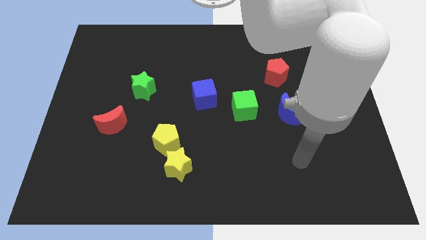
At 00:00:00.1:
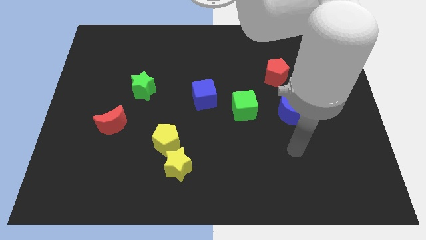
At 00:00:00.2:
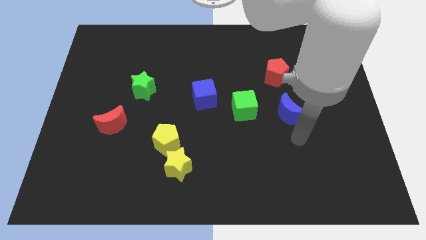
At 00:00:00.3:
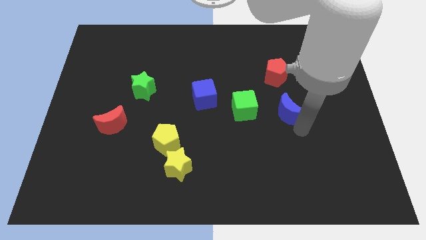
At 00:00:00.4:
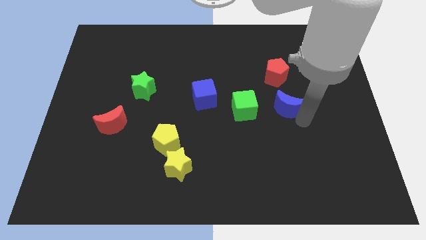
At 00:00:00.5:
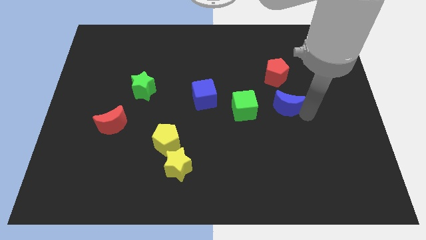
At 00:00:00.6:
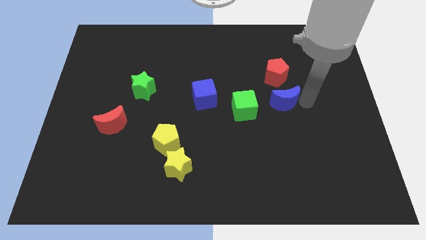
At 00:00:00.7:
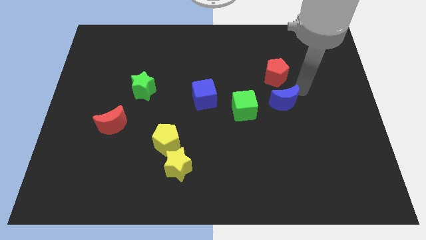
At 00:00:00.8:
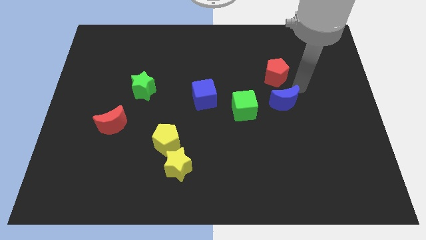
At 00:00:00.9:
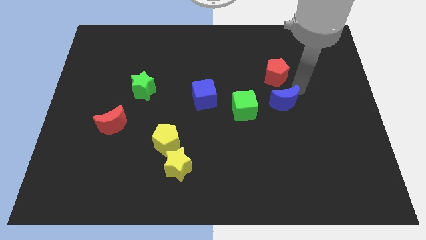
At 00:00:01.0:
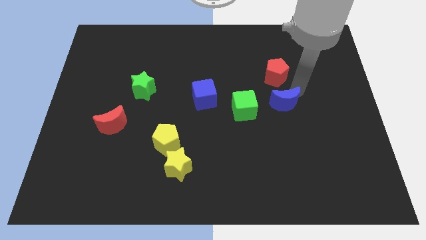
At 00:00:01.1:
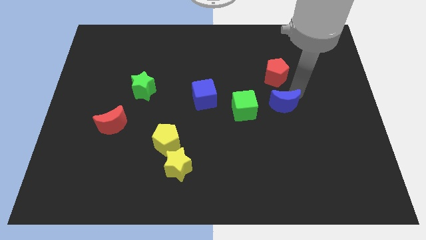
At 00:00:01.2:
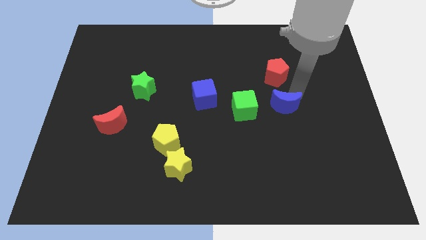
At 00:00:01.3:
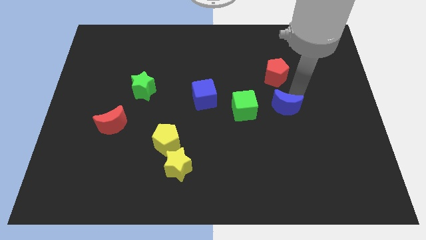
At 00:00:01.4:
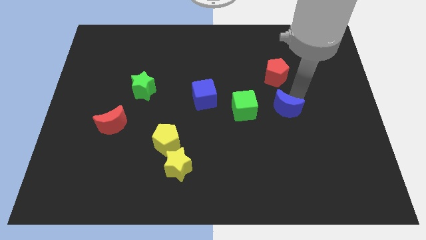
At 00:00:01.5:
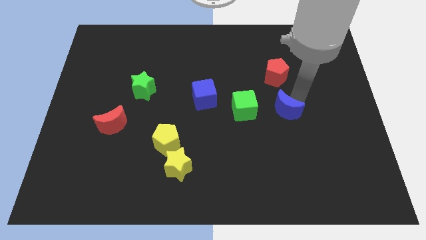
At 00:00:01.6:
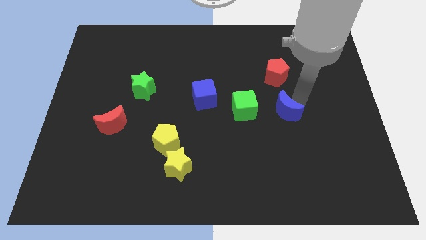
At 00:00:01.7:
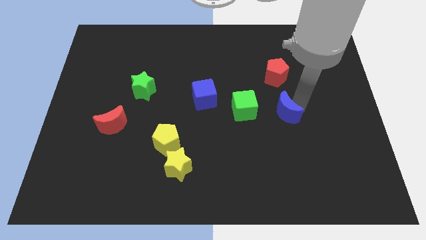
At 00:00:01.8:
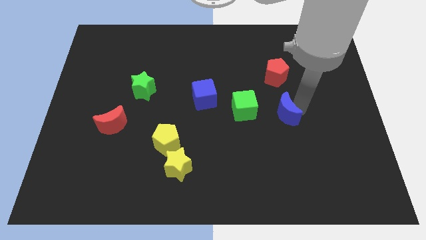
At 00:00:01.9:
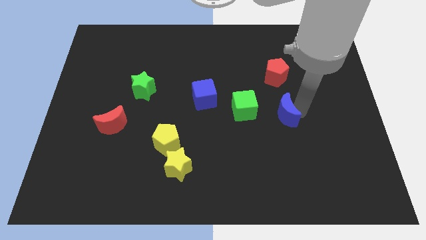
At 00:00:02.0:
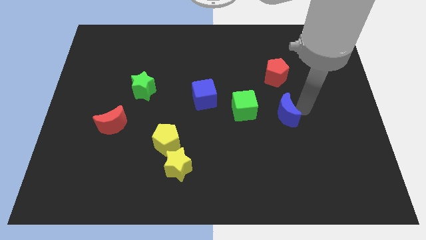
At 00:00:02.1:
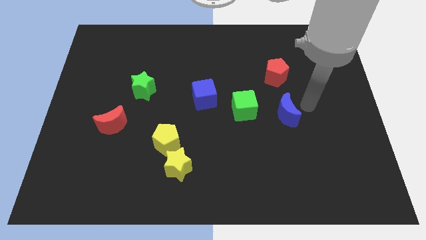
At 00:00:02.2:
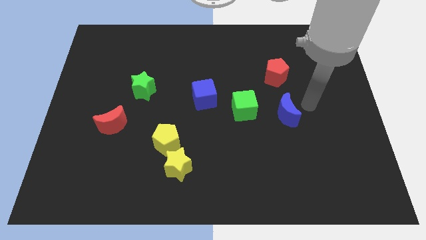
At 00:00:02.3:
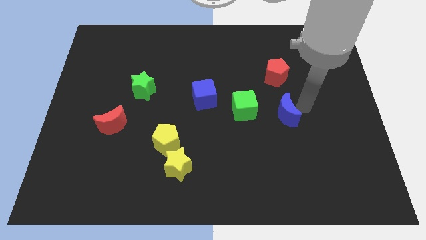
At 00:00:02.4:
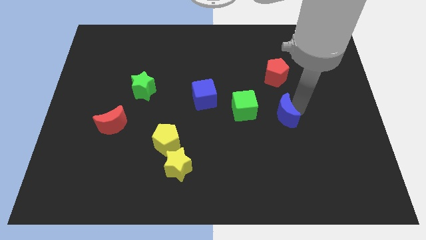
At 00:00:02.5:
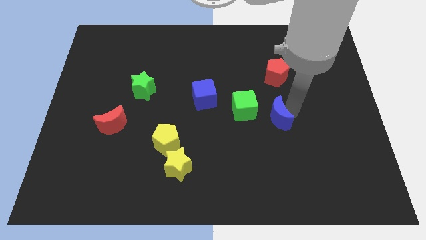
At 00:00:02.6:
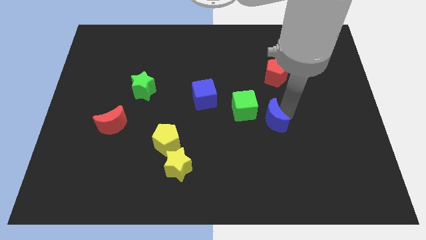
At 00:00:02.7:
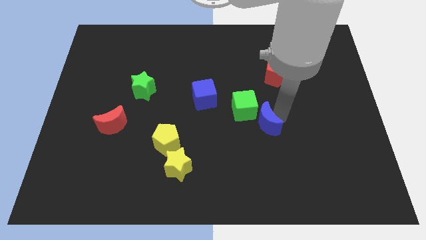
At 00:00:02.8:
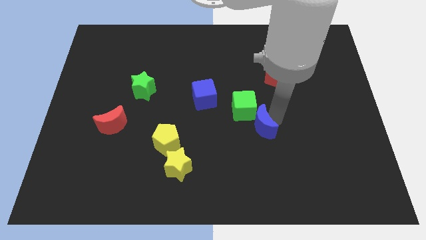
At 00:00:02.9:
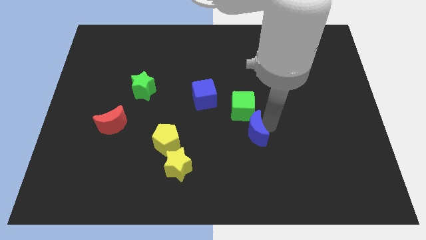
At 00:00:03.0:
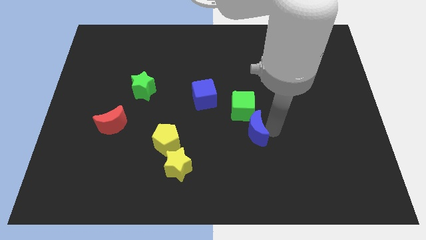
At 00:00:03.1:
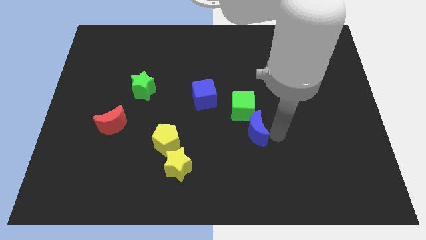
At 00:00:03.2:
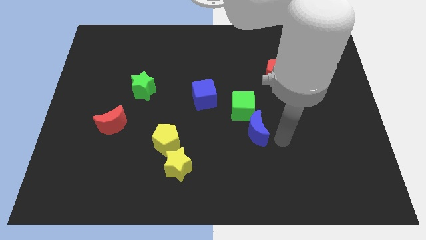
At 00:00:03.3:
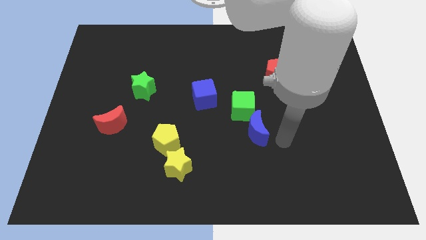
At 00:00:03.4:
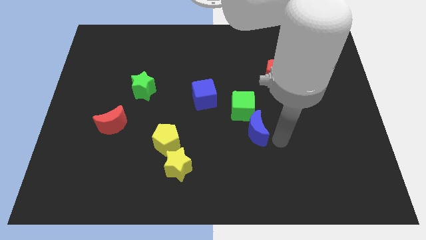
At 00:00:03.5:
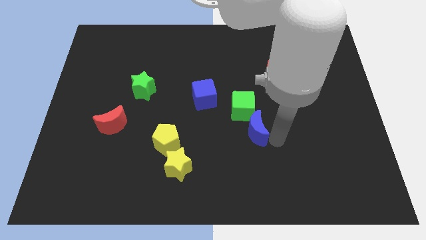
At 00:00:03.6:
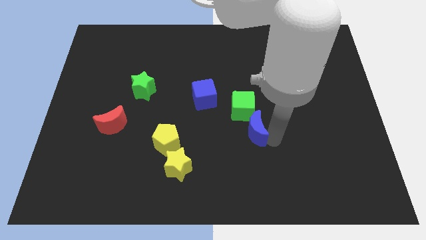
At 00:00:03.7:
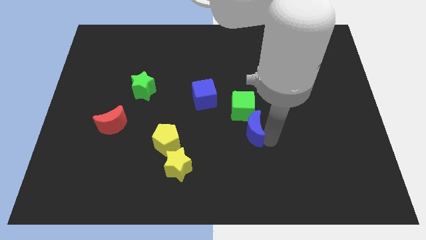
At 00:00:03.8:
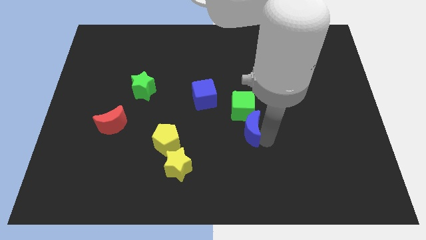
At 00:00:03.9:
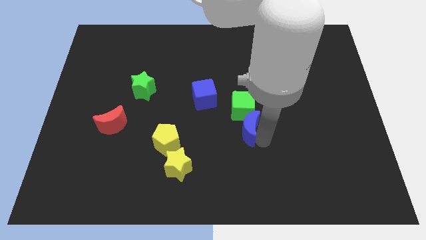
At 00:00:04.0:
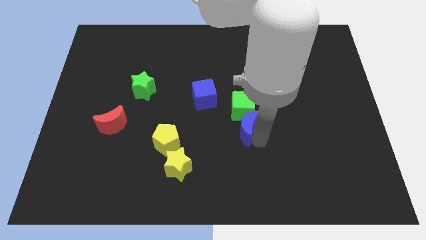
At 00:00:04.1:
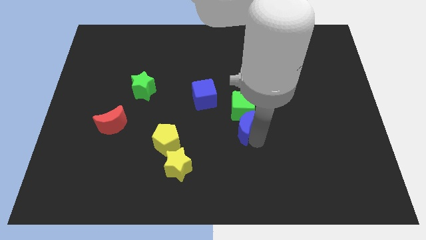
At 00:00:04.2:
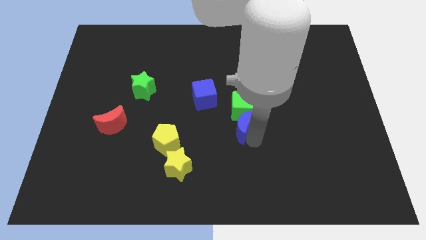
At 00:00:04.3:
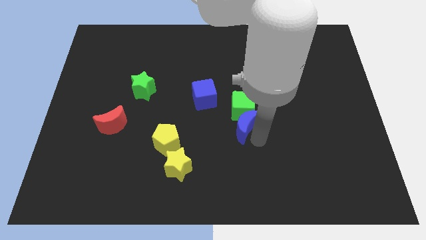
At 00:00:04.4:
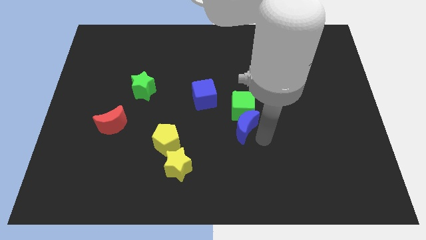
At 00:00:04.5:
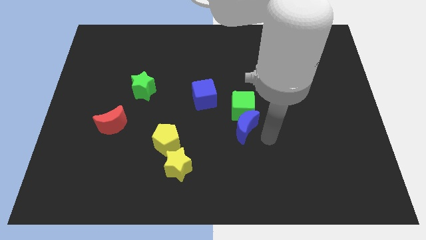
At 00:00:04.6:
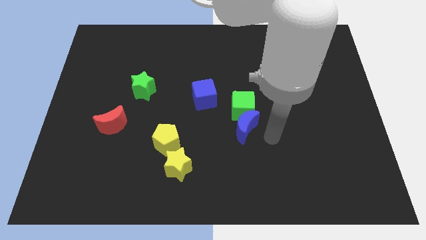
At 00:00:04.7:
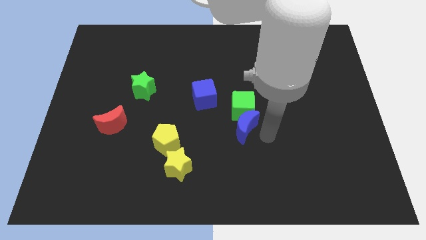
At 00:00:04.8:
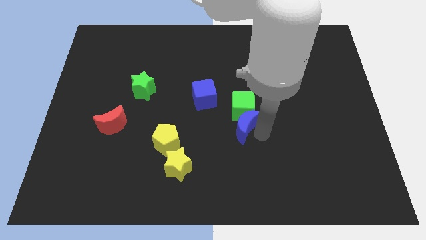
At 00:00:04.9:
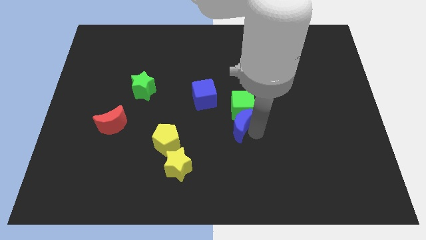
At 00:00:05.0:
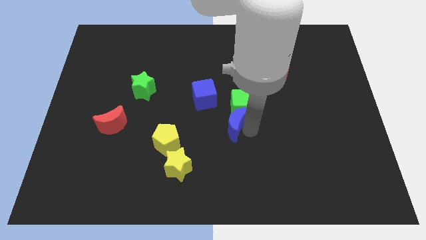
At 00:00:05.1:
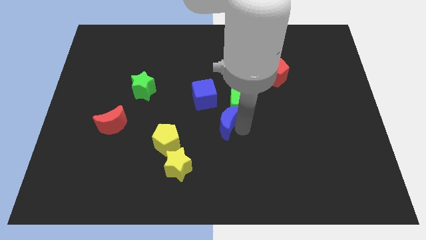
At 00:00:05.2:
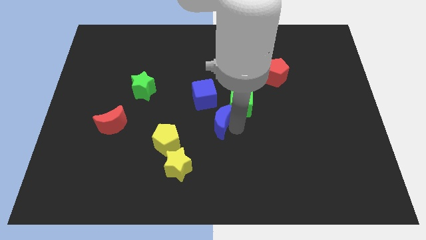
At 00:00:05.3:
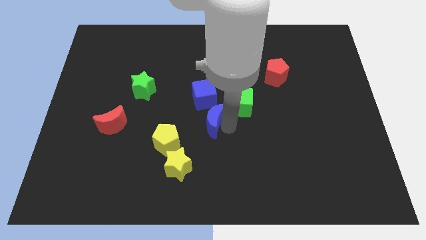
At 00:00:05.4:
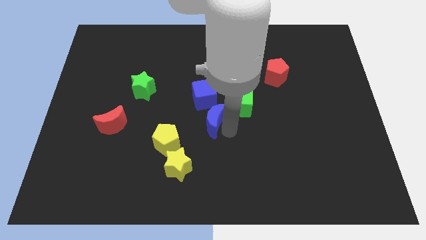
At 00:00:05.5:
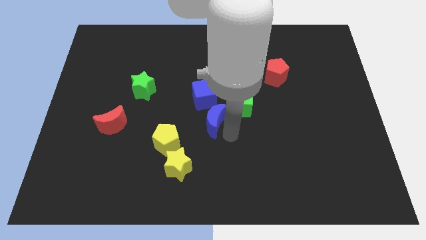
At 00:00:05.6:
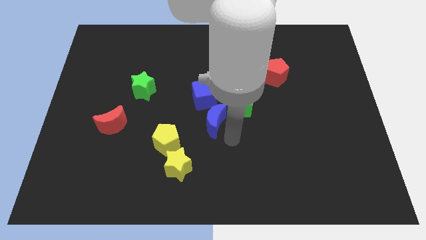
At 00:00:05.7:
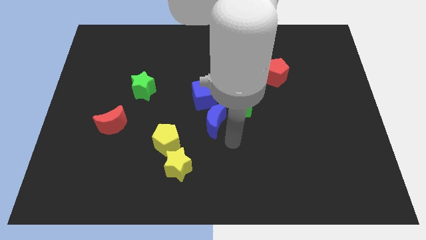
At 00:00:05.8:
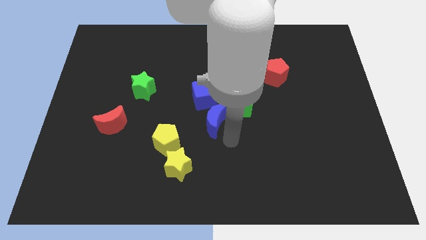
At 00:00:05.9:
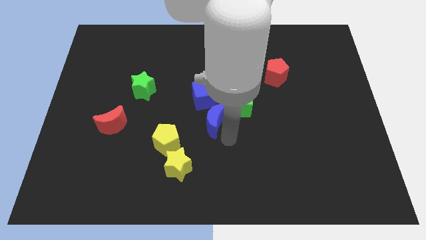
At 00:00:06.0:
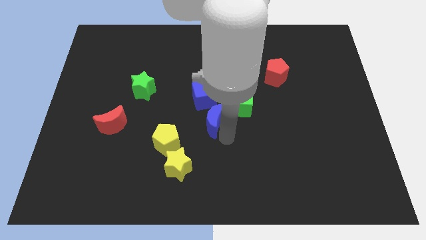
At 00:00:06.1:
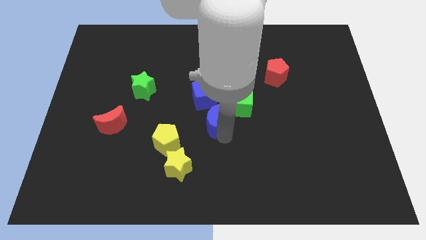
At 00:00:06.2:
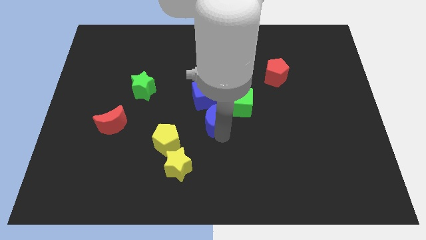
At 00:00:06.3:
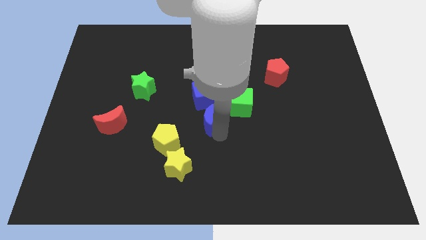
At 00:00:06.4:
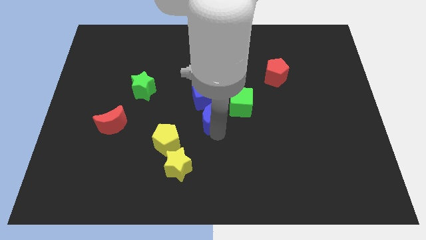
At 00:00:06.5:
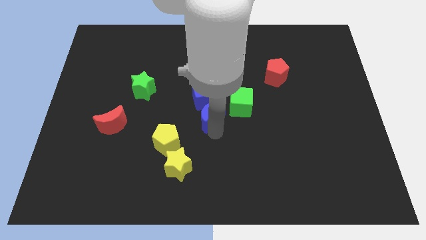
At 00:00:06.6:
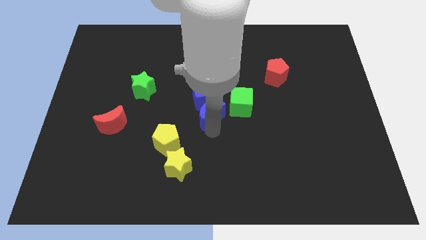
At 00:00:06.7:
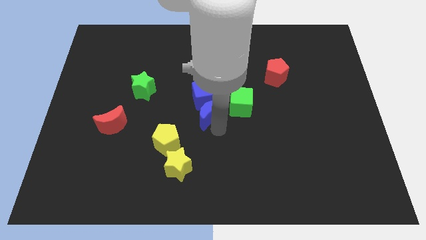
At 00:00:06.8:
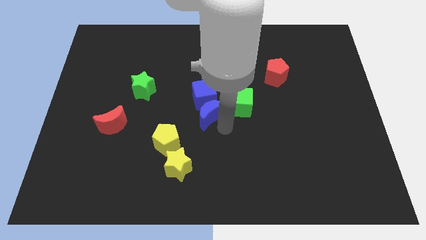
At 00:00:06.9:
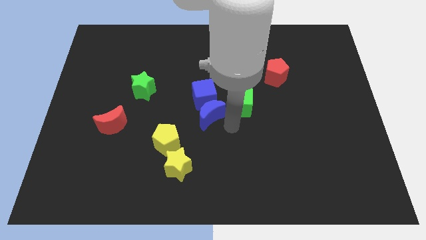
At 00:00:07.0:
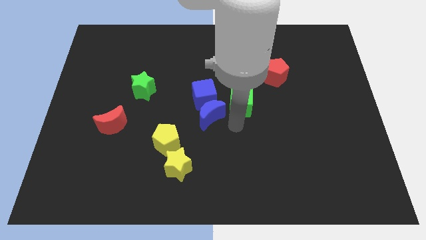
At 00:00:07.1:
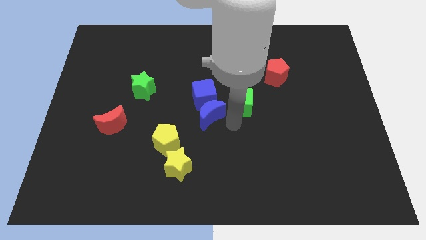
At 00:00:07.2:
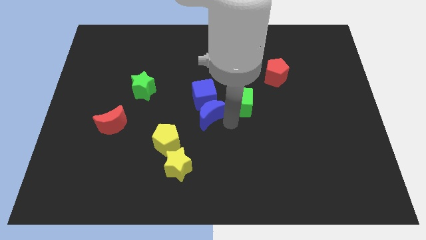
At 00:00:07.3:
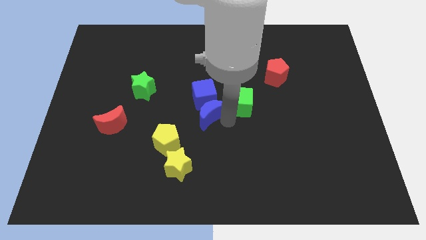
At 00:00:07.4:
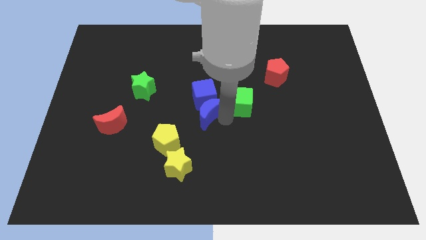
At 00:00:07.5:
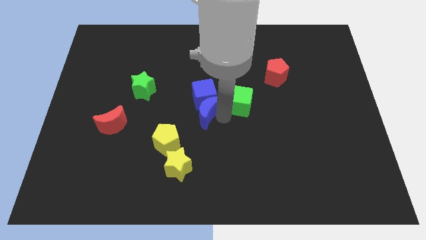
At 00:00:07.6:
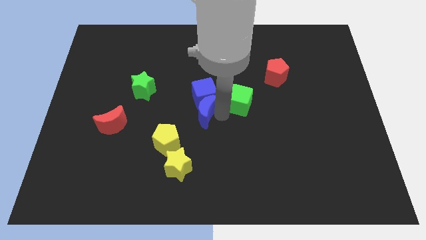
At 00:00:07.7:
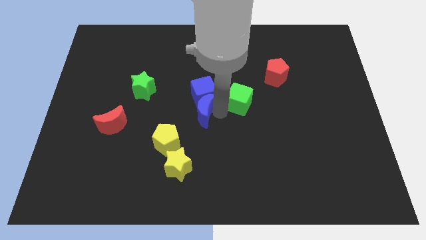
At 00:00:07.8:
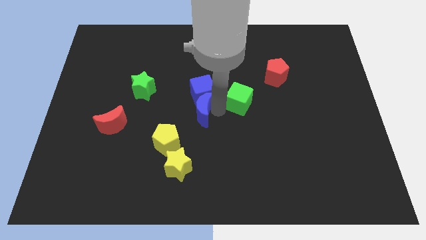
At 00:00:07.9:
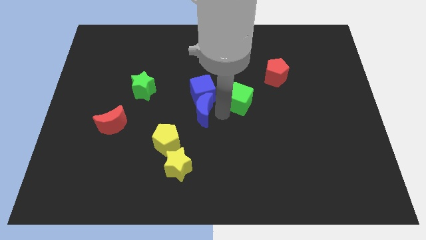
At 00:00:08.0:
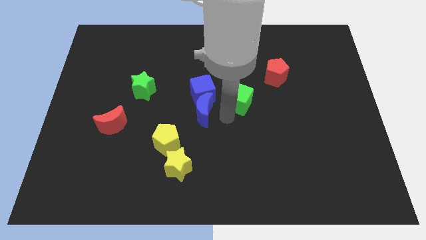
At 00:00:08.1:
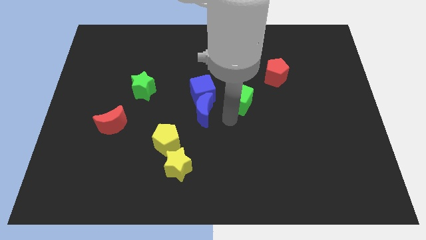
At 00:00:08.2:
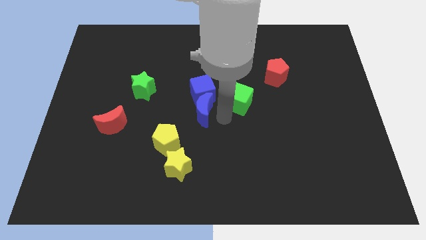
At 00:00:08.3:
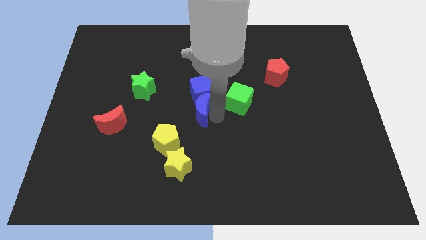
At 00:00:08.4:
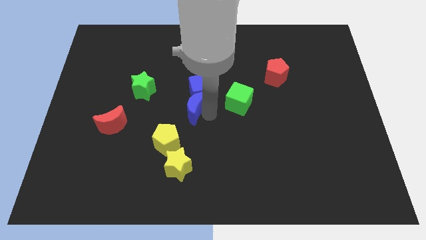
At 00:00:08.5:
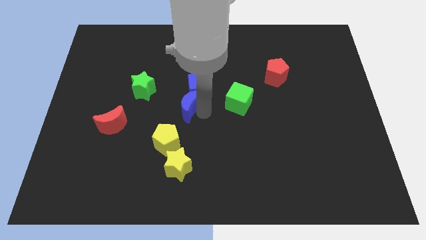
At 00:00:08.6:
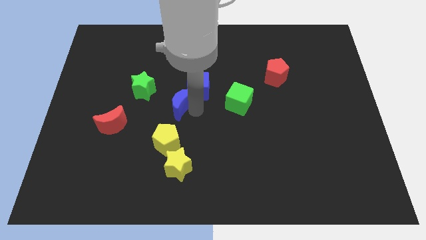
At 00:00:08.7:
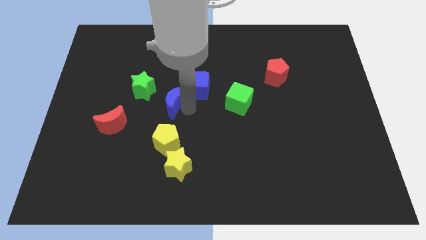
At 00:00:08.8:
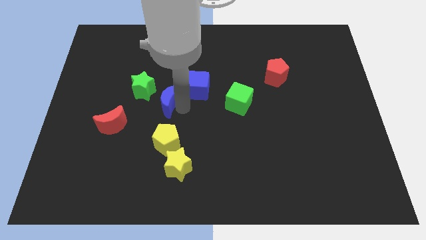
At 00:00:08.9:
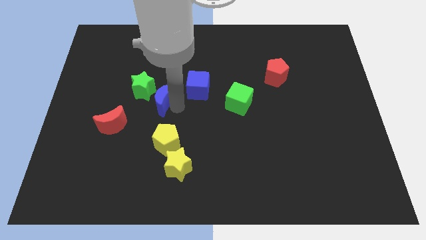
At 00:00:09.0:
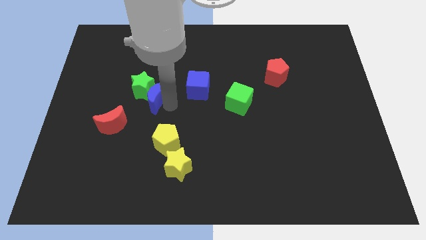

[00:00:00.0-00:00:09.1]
move the blue moon close to the green star
